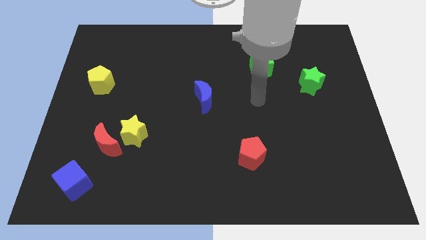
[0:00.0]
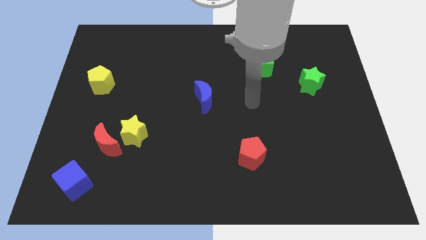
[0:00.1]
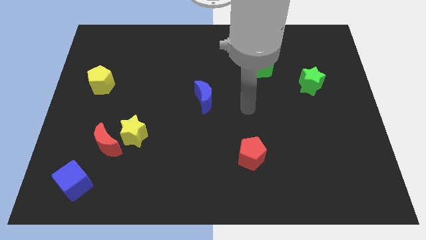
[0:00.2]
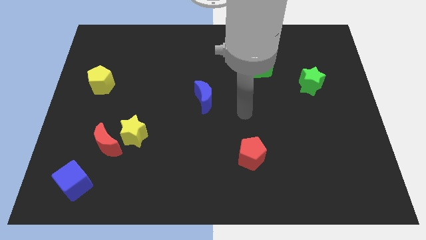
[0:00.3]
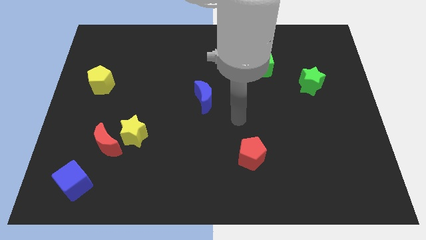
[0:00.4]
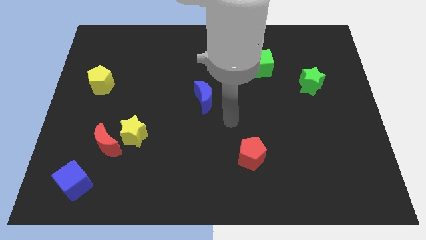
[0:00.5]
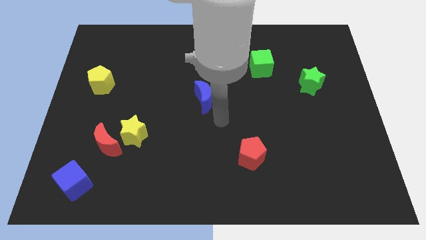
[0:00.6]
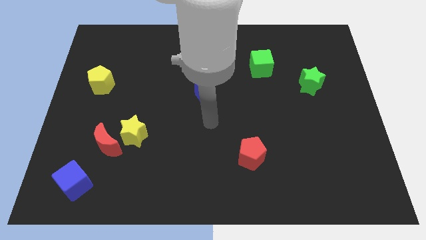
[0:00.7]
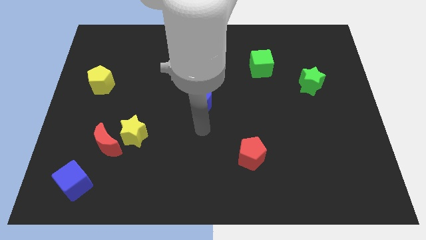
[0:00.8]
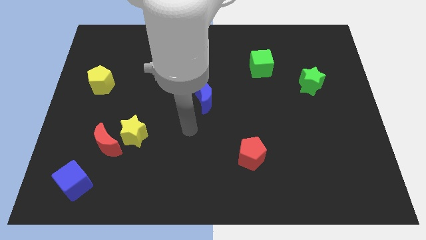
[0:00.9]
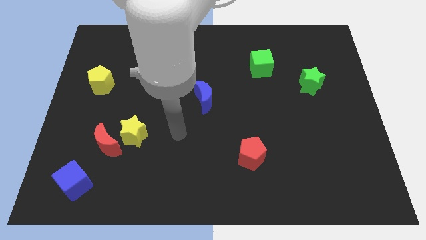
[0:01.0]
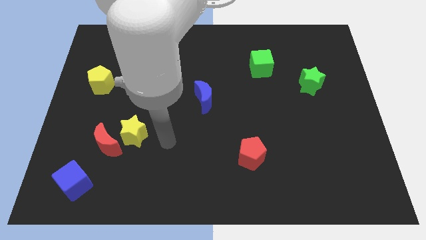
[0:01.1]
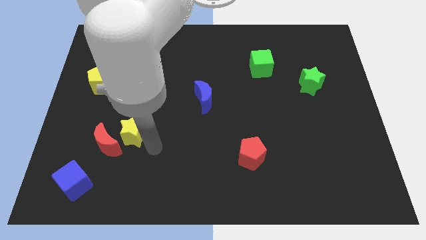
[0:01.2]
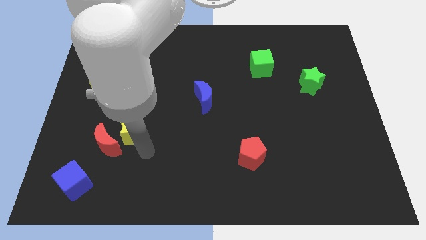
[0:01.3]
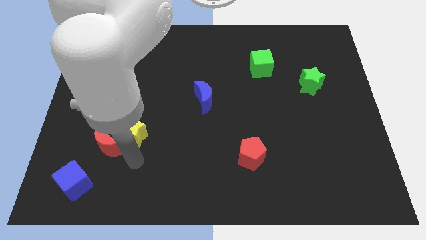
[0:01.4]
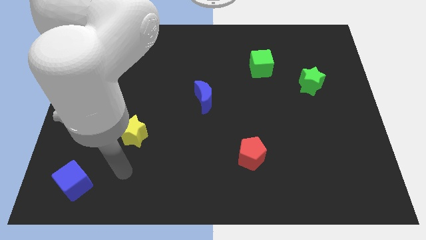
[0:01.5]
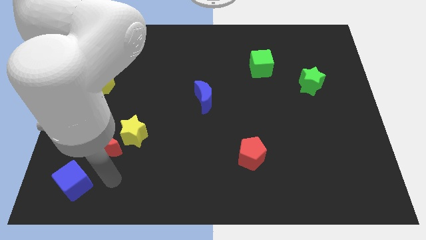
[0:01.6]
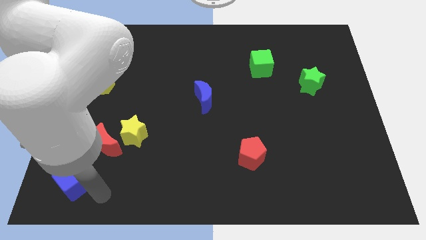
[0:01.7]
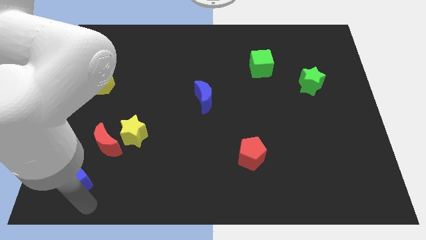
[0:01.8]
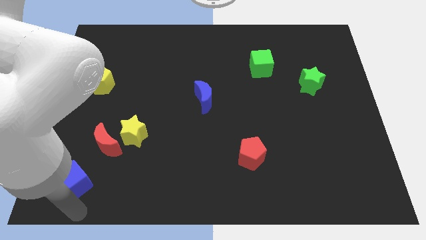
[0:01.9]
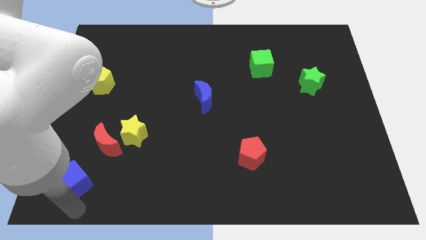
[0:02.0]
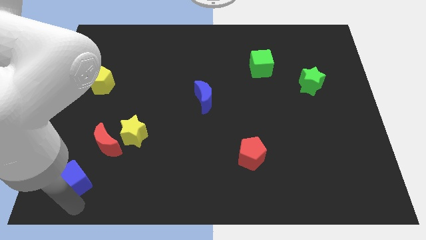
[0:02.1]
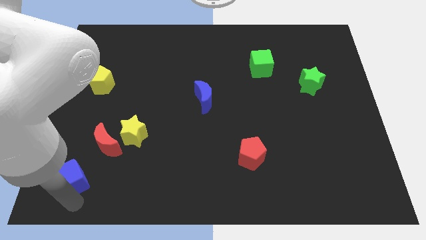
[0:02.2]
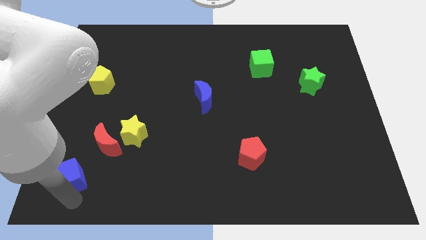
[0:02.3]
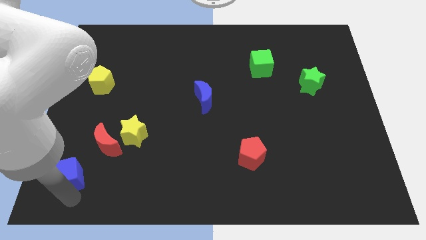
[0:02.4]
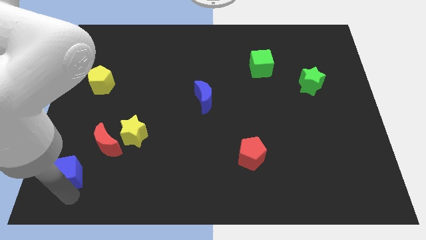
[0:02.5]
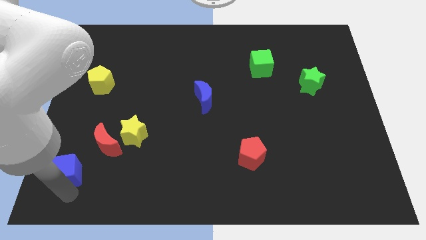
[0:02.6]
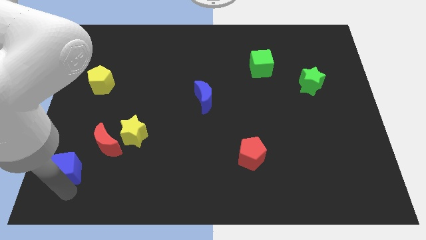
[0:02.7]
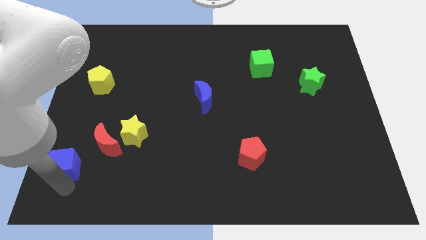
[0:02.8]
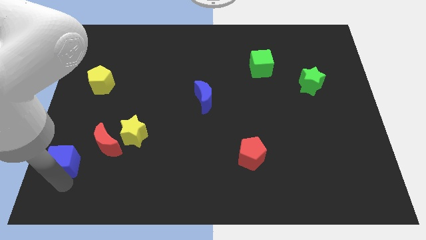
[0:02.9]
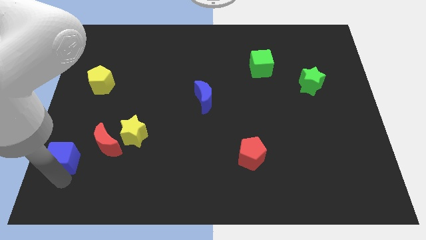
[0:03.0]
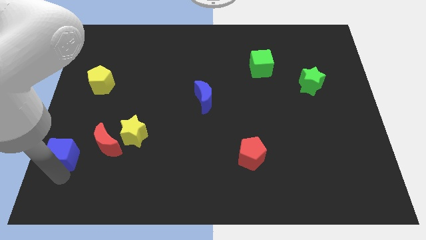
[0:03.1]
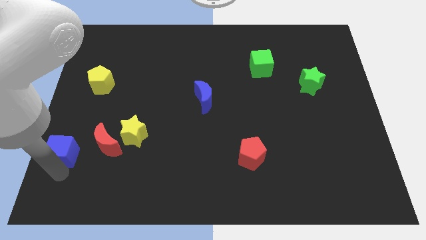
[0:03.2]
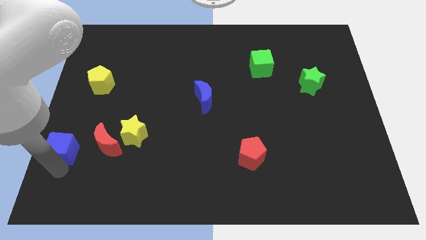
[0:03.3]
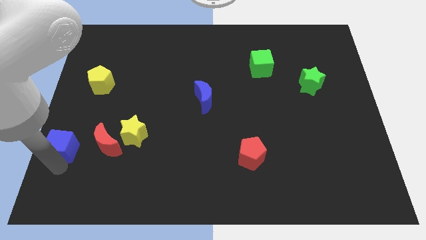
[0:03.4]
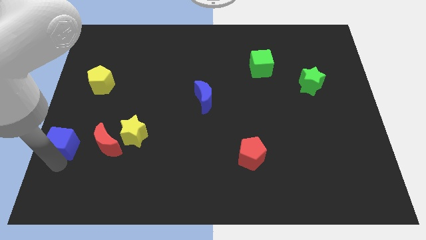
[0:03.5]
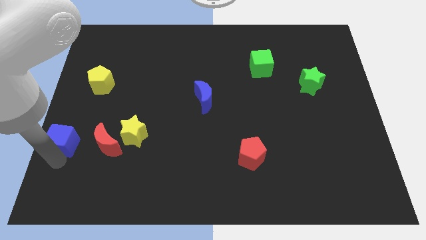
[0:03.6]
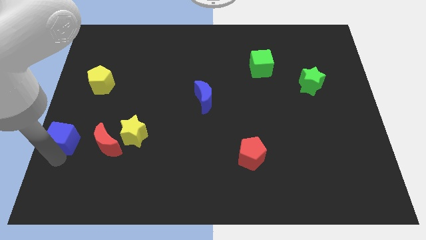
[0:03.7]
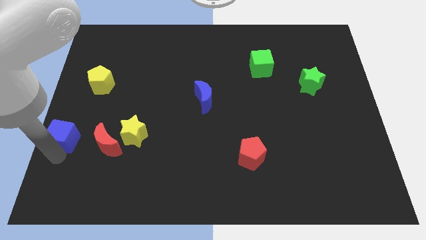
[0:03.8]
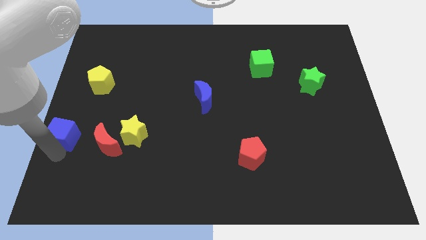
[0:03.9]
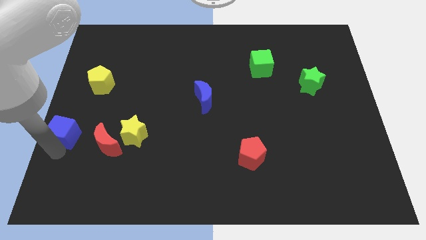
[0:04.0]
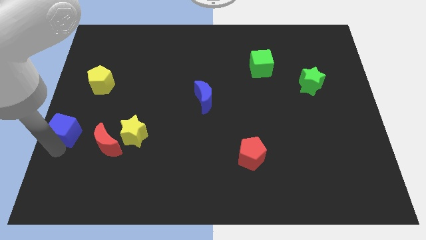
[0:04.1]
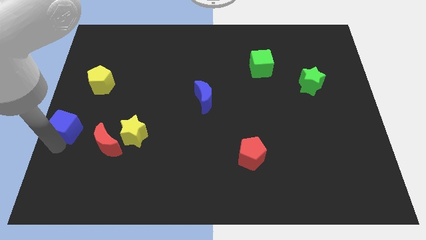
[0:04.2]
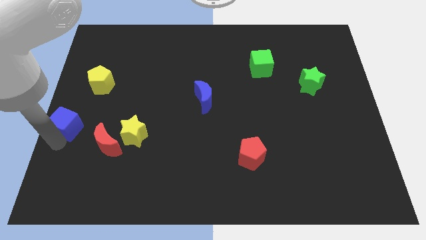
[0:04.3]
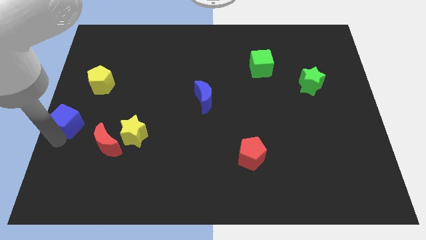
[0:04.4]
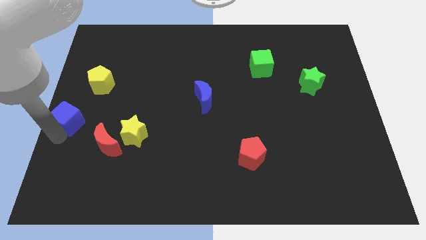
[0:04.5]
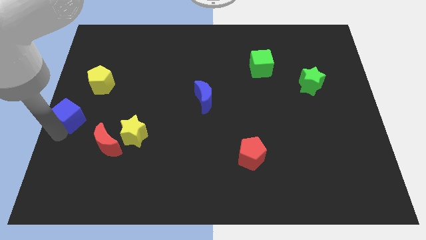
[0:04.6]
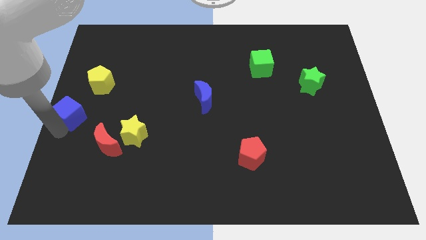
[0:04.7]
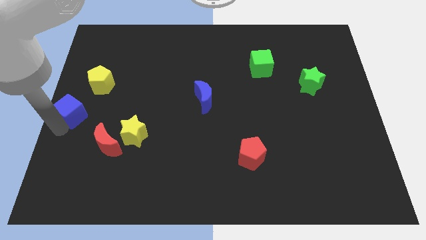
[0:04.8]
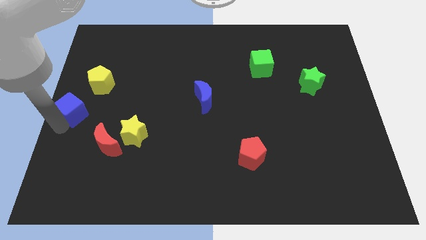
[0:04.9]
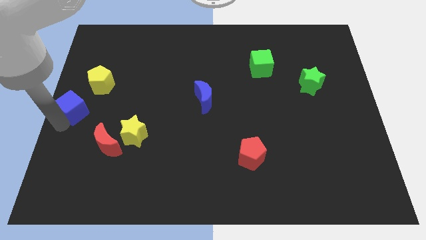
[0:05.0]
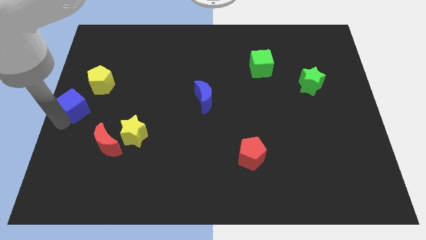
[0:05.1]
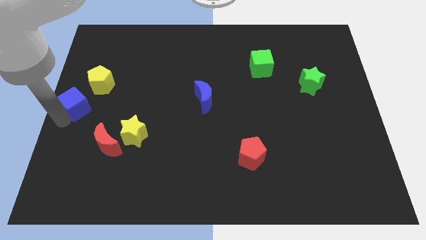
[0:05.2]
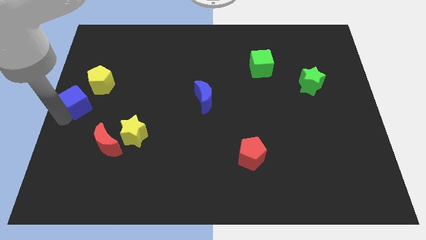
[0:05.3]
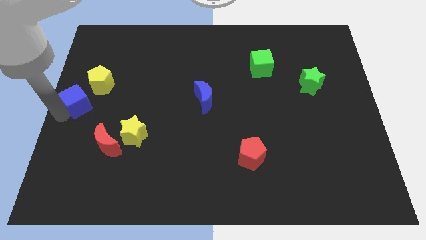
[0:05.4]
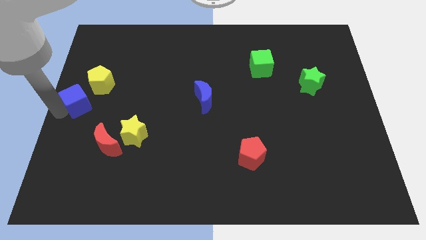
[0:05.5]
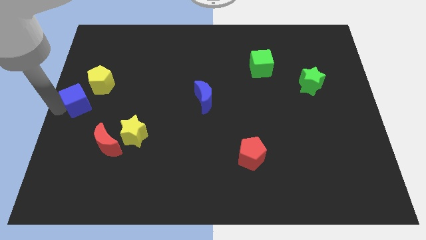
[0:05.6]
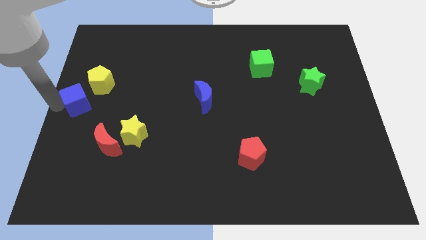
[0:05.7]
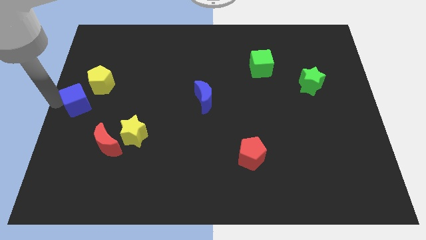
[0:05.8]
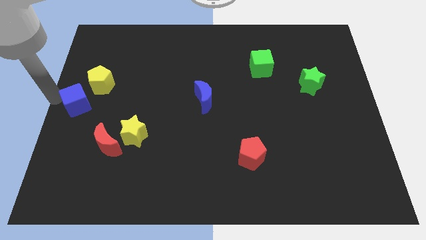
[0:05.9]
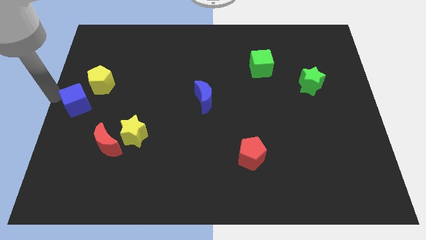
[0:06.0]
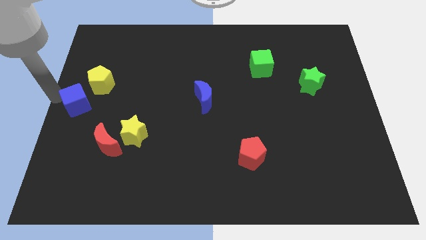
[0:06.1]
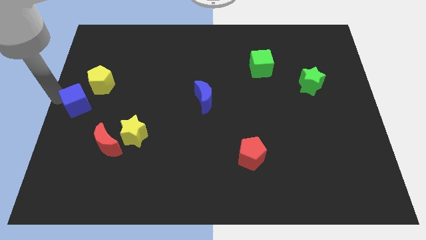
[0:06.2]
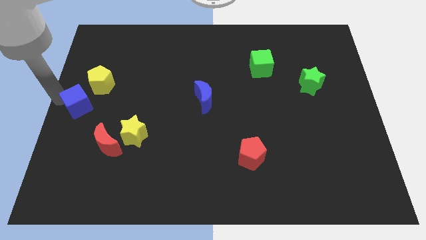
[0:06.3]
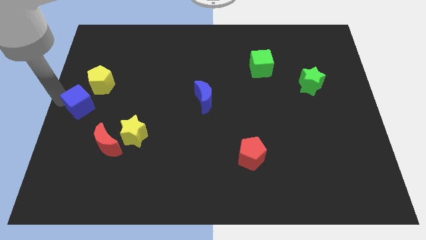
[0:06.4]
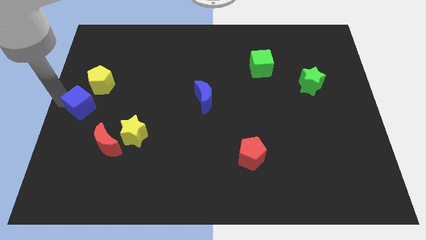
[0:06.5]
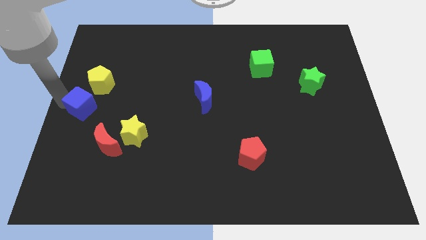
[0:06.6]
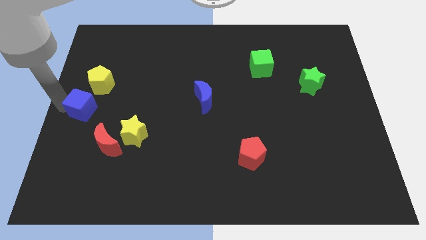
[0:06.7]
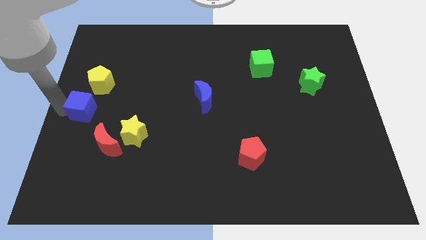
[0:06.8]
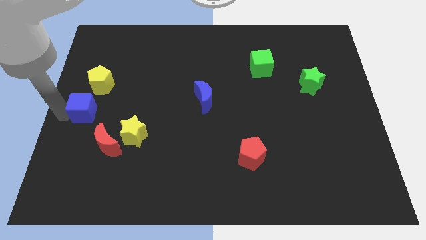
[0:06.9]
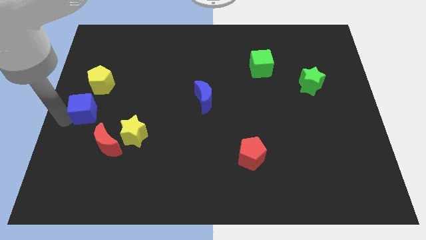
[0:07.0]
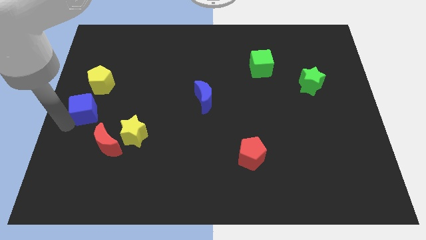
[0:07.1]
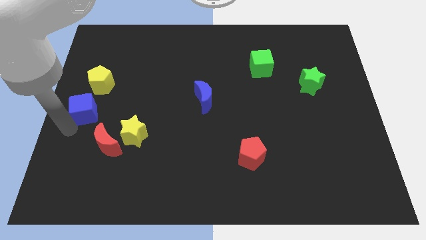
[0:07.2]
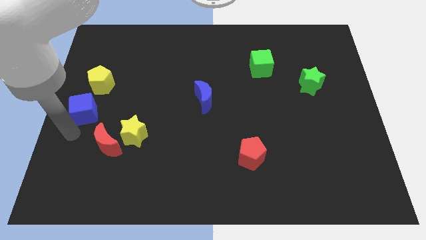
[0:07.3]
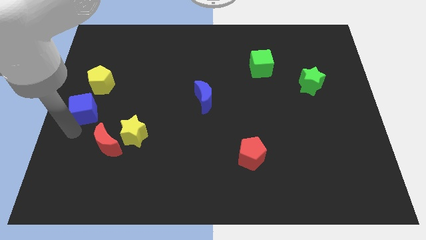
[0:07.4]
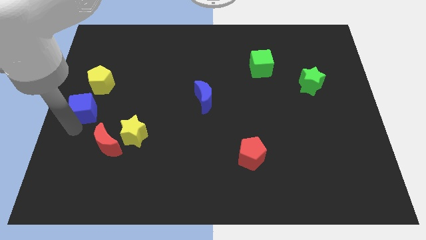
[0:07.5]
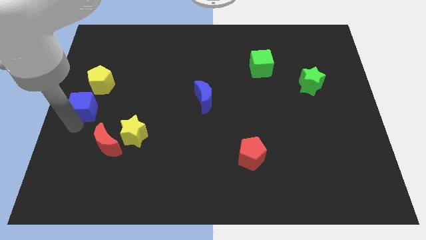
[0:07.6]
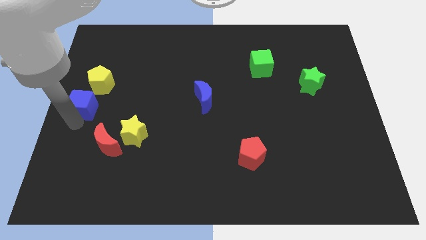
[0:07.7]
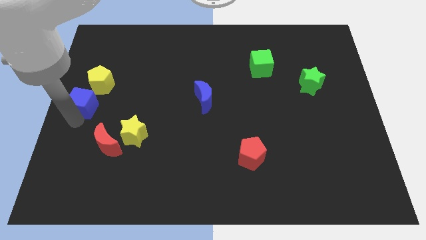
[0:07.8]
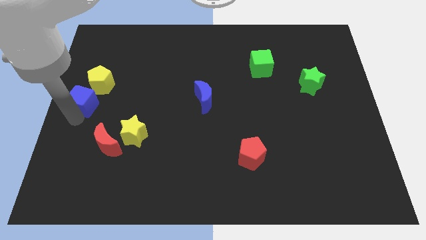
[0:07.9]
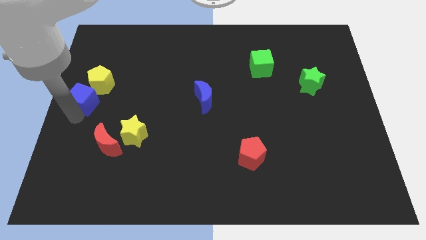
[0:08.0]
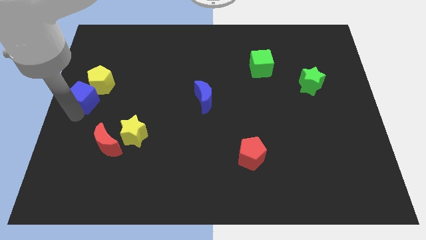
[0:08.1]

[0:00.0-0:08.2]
put the blue cube next to the yellow pentagon
